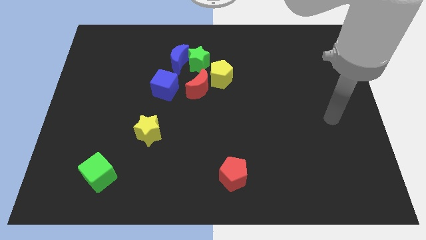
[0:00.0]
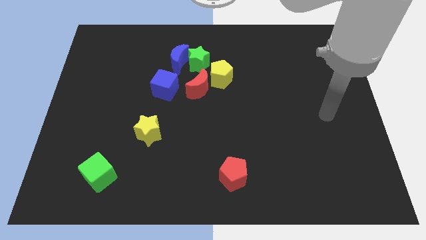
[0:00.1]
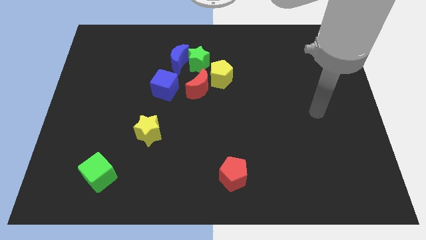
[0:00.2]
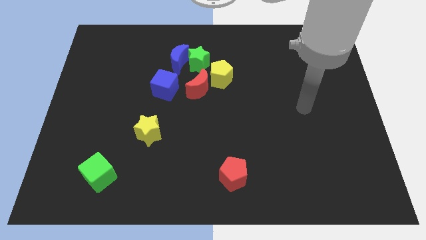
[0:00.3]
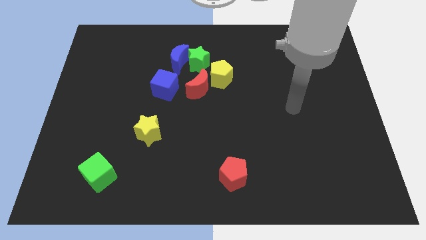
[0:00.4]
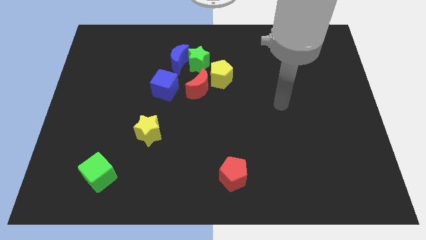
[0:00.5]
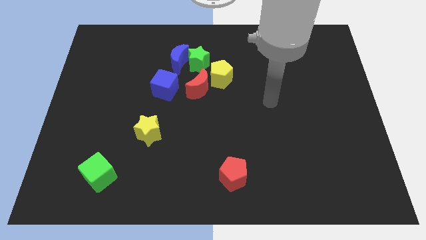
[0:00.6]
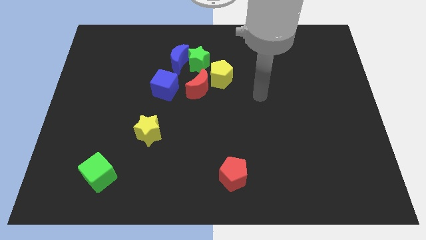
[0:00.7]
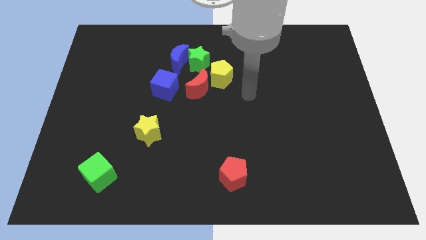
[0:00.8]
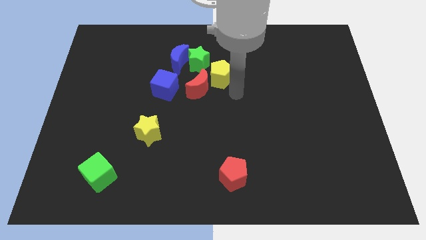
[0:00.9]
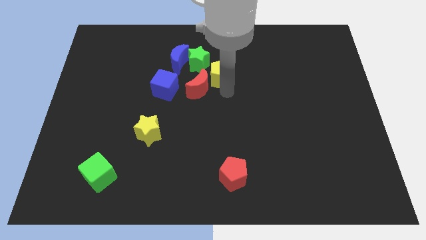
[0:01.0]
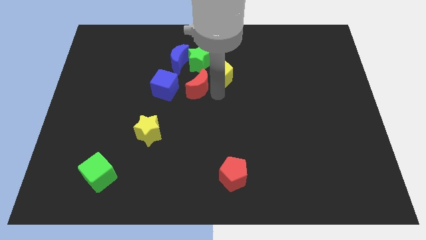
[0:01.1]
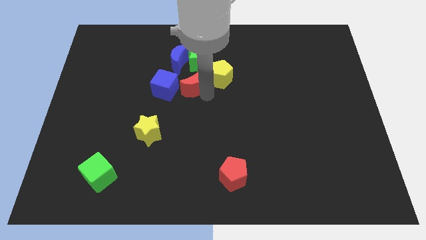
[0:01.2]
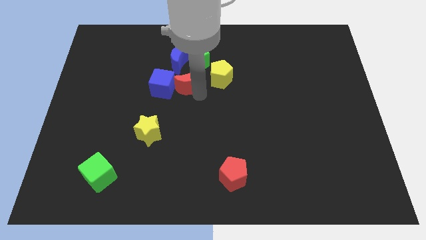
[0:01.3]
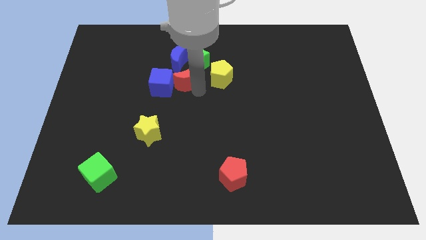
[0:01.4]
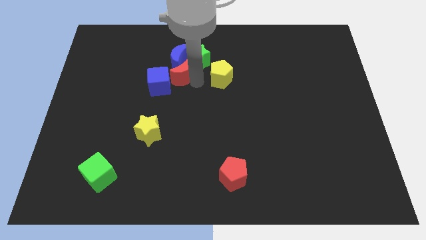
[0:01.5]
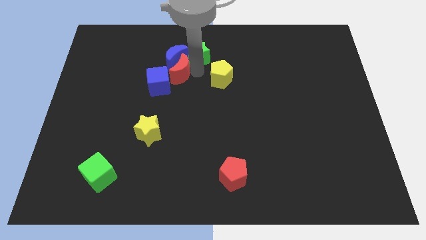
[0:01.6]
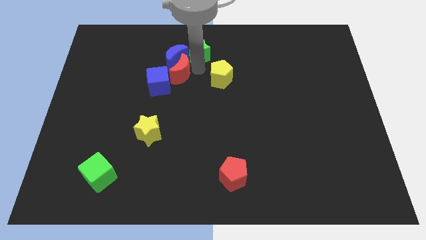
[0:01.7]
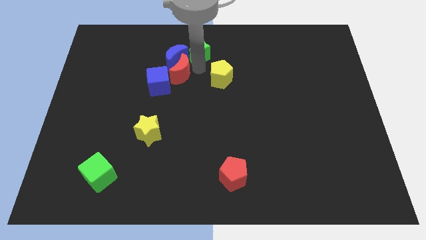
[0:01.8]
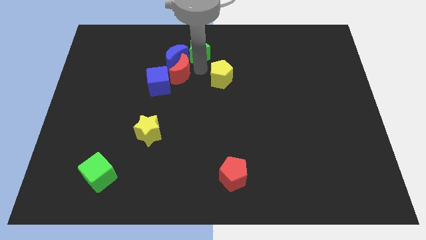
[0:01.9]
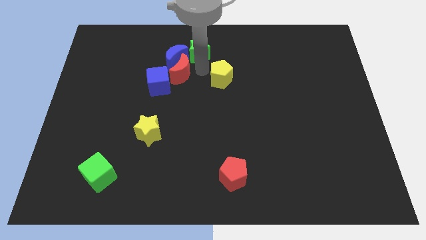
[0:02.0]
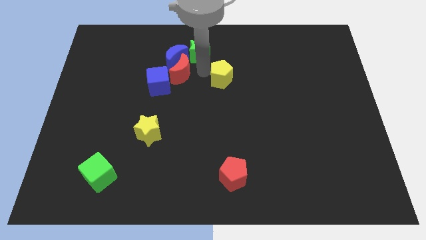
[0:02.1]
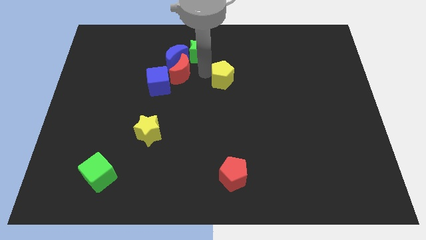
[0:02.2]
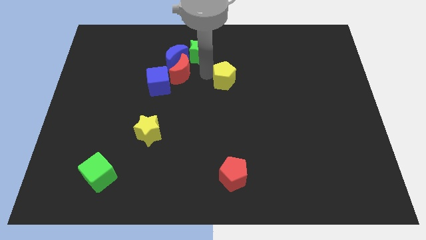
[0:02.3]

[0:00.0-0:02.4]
pull the yellow pentagon apart from the red moon and green star

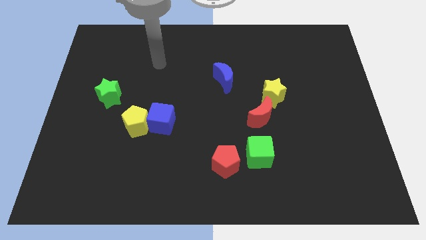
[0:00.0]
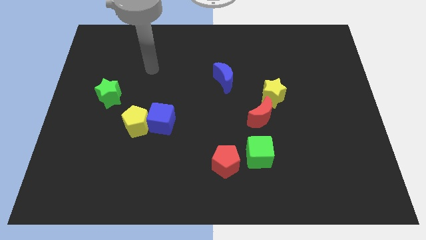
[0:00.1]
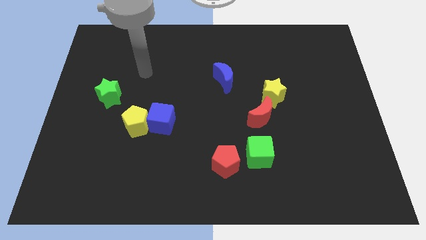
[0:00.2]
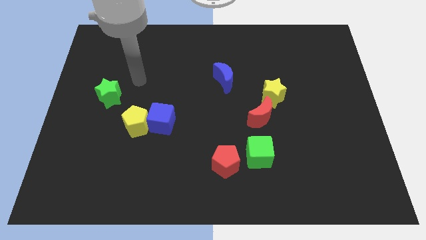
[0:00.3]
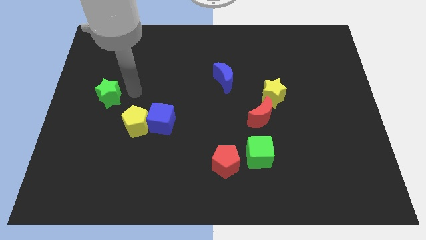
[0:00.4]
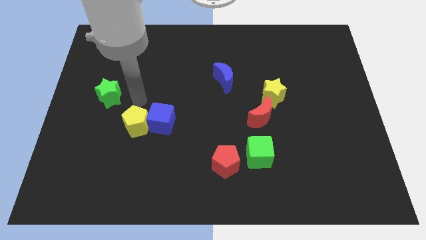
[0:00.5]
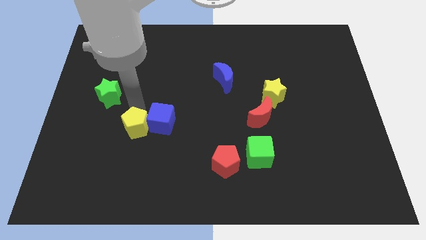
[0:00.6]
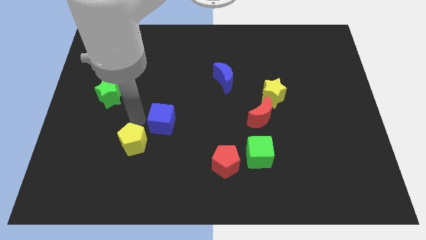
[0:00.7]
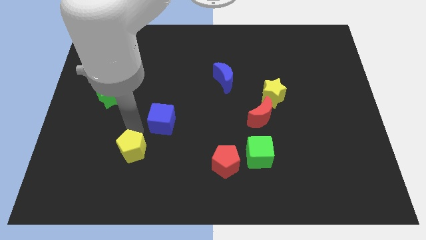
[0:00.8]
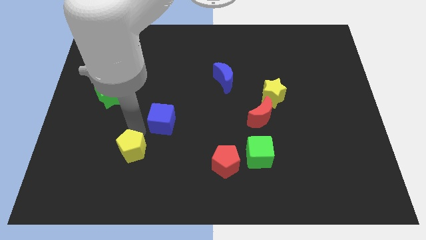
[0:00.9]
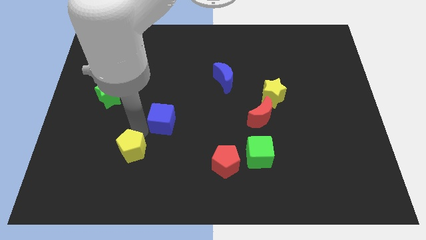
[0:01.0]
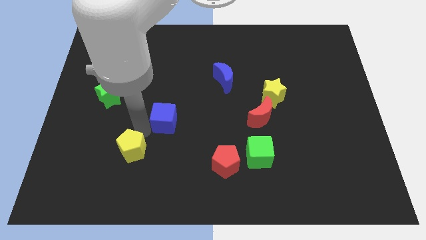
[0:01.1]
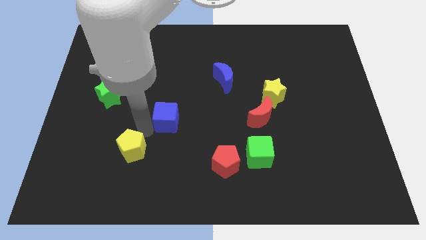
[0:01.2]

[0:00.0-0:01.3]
pull the blue cube apart from the yellow pentagon

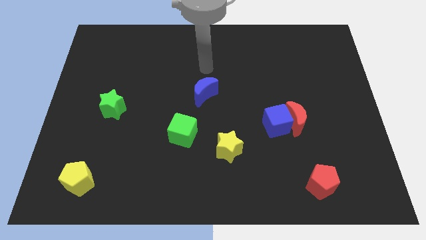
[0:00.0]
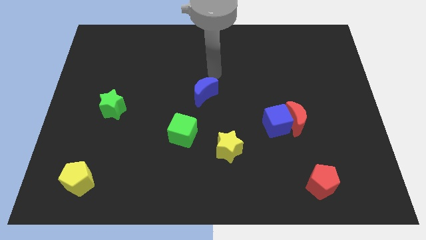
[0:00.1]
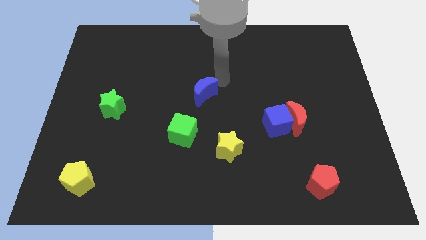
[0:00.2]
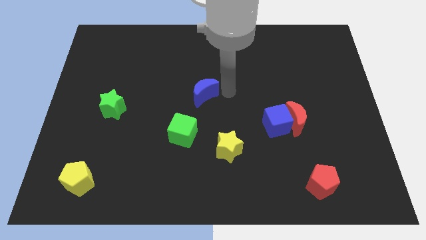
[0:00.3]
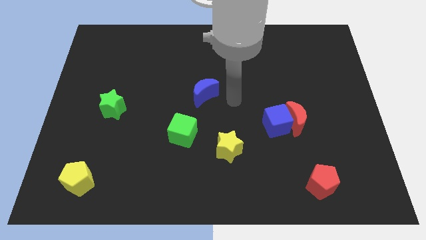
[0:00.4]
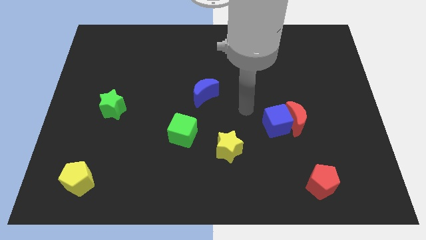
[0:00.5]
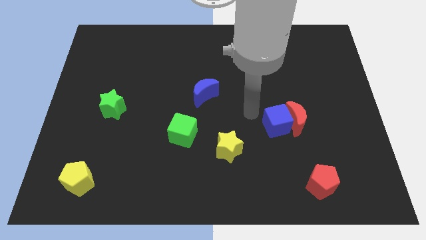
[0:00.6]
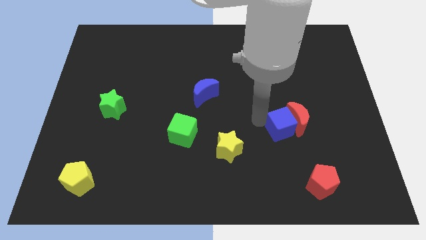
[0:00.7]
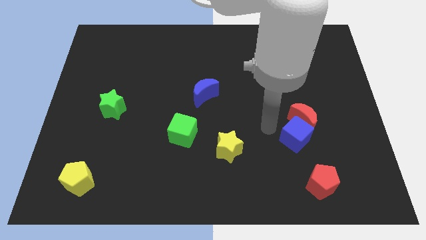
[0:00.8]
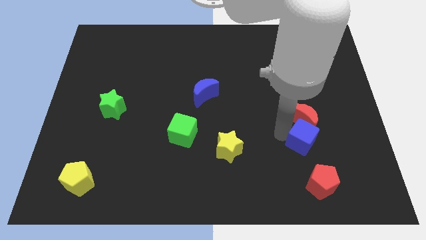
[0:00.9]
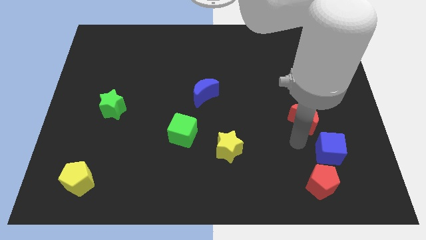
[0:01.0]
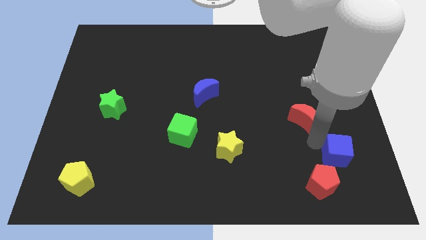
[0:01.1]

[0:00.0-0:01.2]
move the red moon away from the blue cube

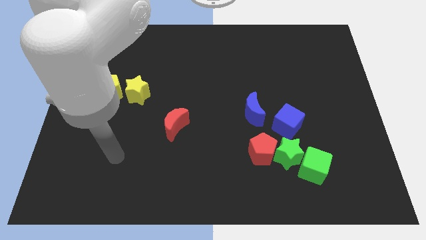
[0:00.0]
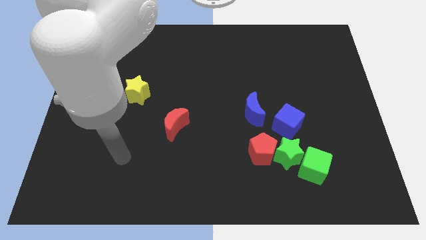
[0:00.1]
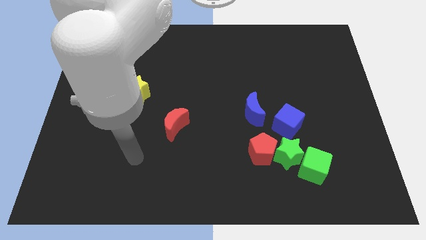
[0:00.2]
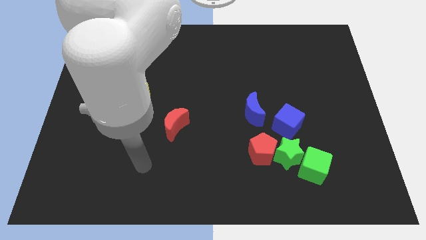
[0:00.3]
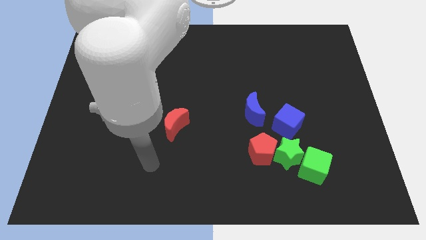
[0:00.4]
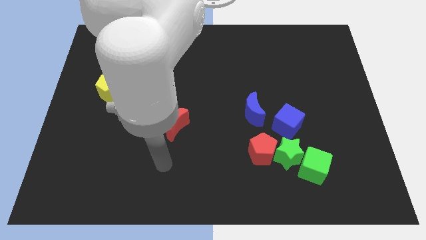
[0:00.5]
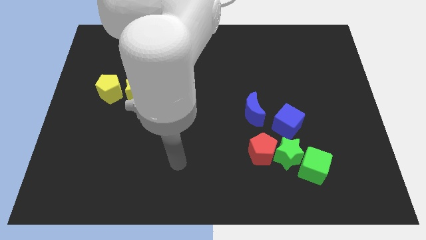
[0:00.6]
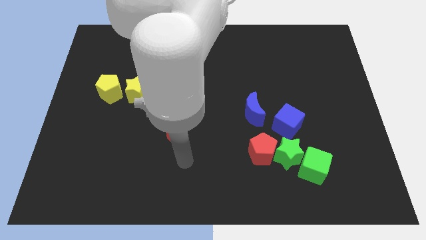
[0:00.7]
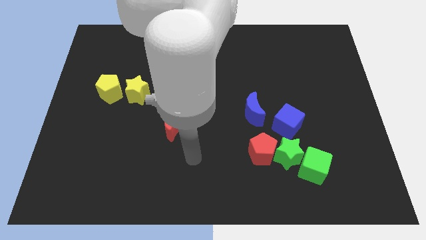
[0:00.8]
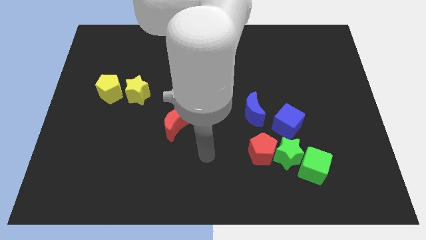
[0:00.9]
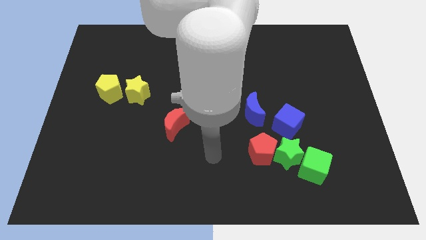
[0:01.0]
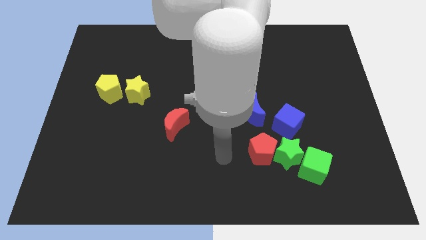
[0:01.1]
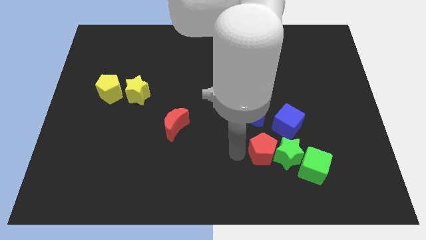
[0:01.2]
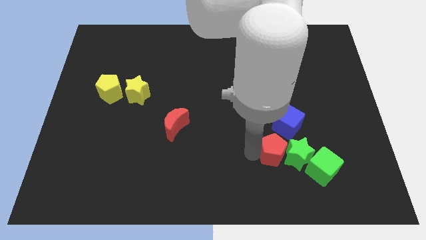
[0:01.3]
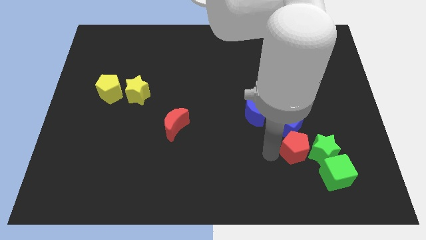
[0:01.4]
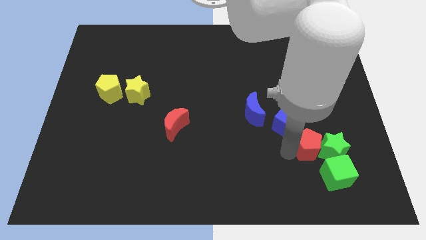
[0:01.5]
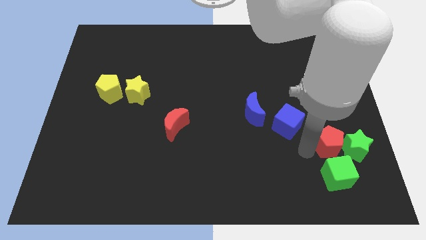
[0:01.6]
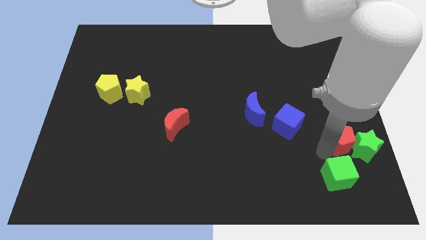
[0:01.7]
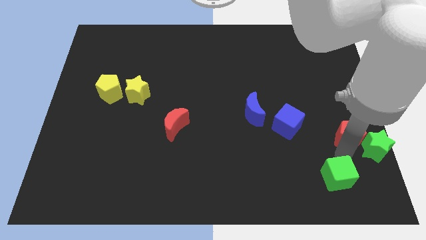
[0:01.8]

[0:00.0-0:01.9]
pull the green cube apart from the green star

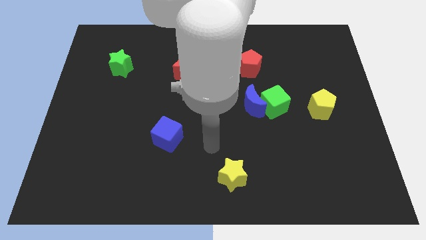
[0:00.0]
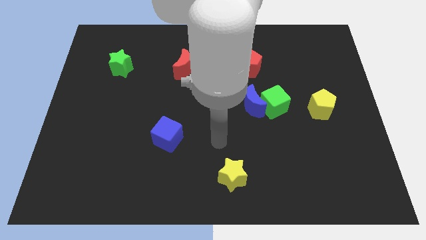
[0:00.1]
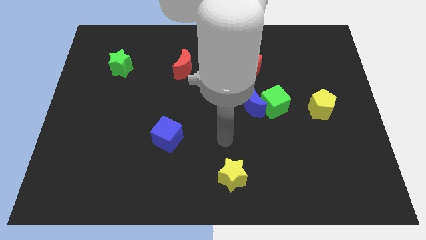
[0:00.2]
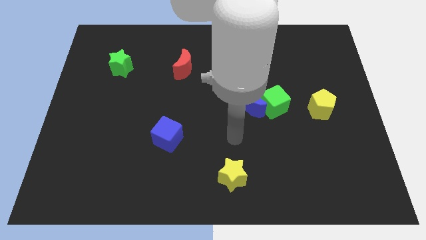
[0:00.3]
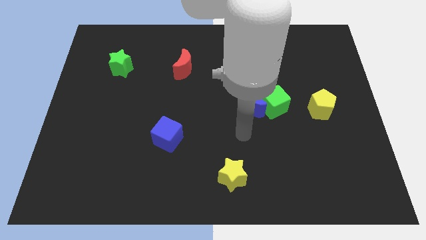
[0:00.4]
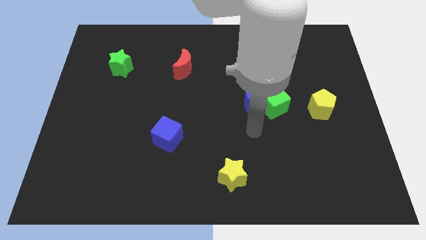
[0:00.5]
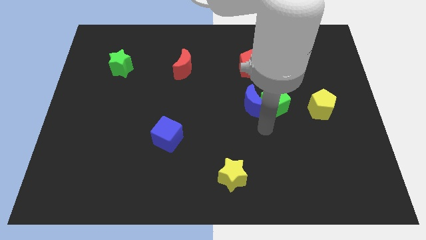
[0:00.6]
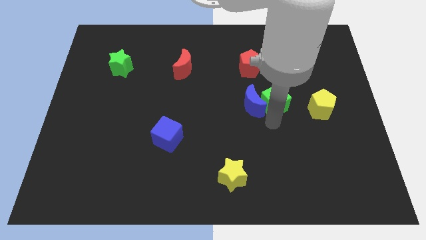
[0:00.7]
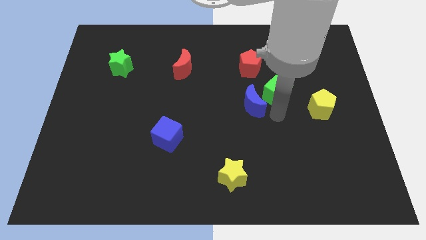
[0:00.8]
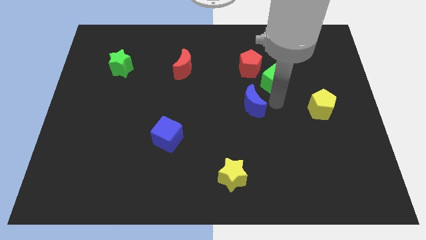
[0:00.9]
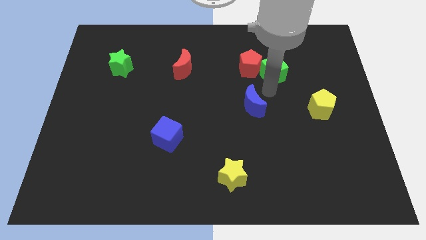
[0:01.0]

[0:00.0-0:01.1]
separate the blue moon from the green cube

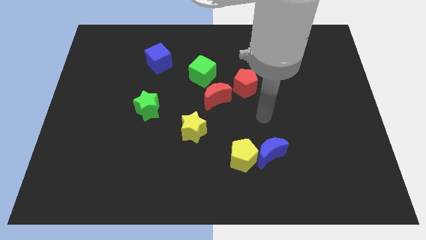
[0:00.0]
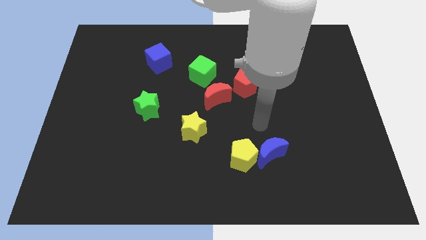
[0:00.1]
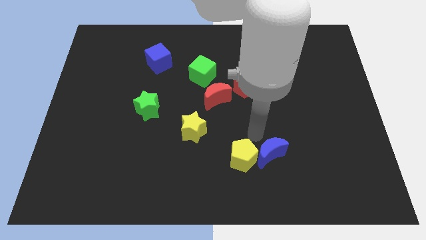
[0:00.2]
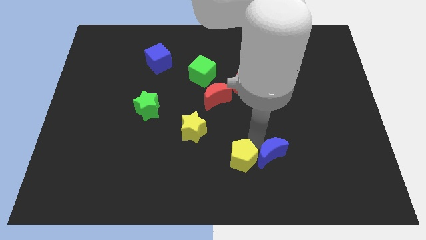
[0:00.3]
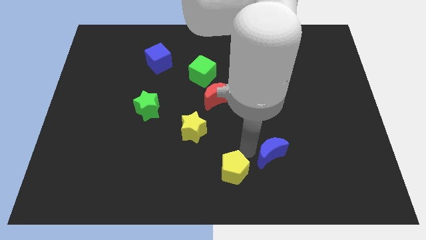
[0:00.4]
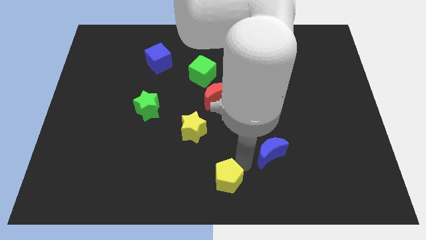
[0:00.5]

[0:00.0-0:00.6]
move the blue moon away from the yellow pentagon

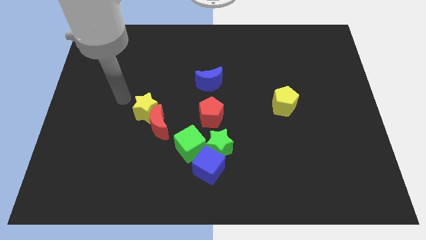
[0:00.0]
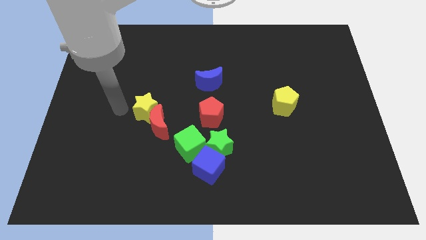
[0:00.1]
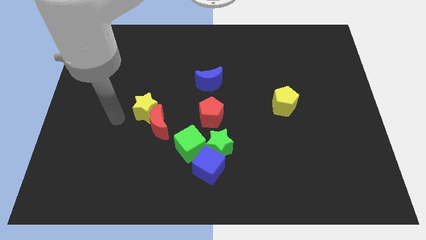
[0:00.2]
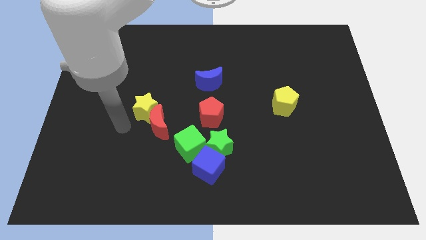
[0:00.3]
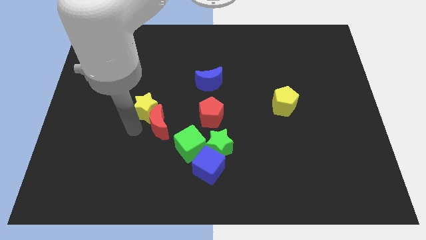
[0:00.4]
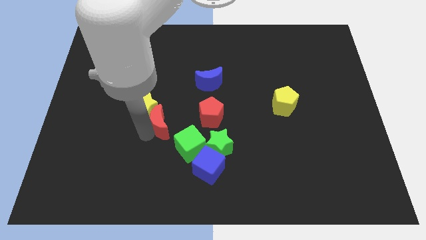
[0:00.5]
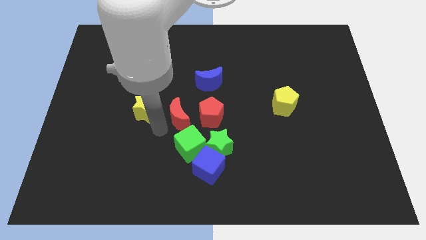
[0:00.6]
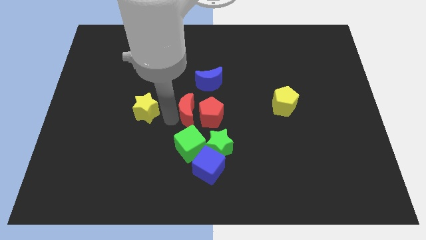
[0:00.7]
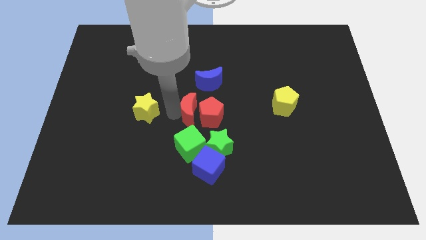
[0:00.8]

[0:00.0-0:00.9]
pull the yellow star apart from the red moon
